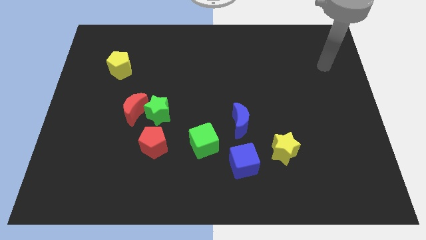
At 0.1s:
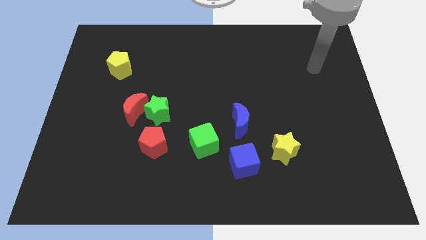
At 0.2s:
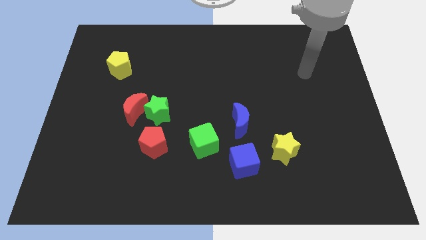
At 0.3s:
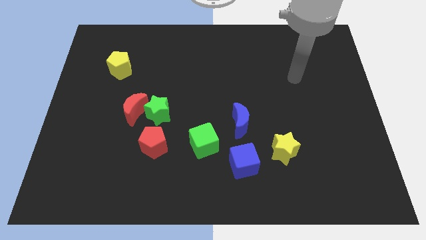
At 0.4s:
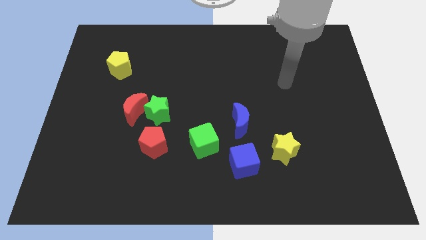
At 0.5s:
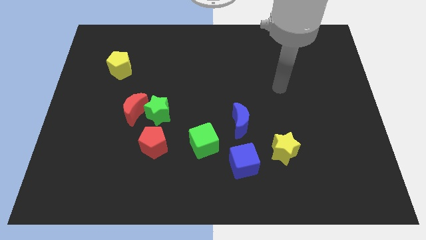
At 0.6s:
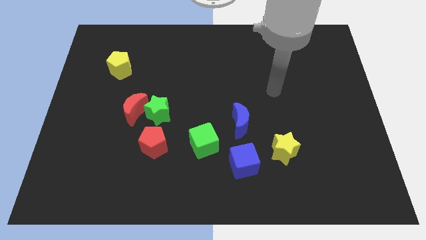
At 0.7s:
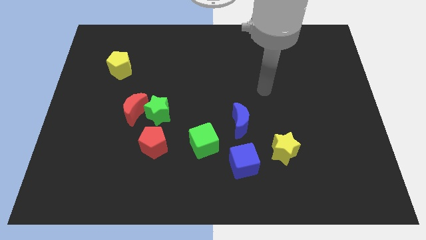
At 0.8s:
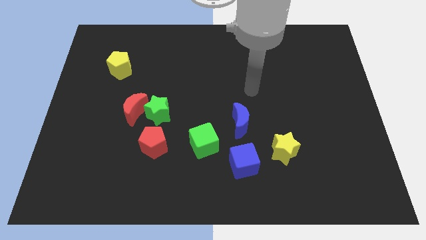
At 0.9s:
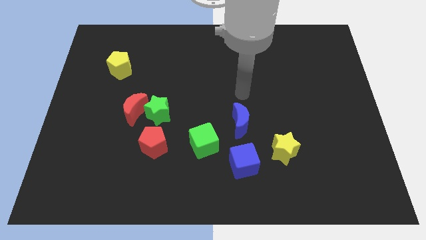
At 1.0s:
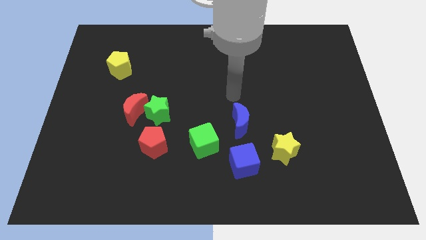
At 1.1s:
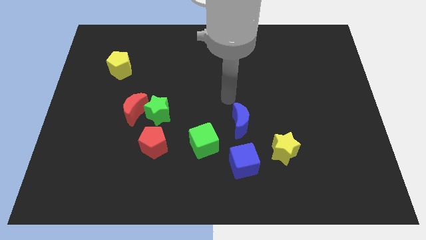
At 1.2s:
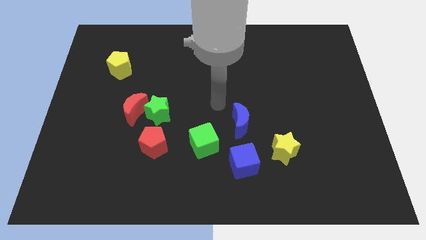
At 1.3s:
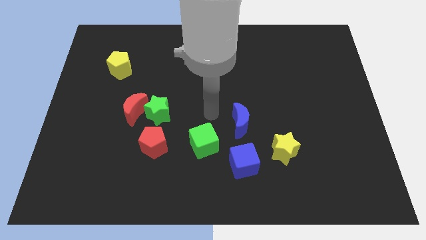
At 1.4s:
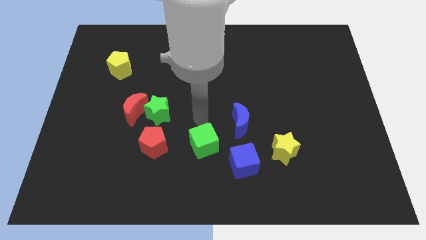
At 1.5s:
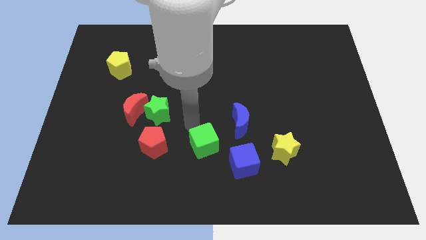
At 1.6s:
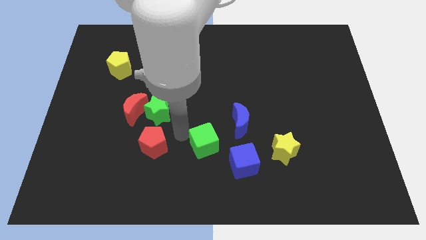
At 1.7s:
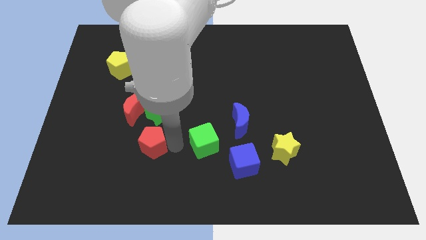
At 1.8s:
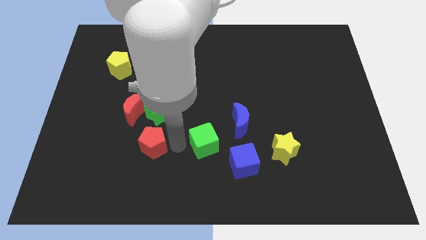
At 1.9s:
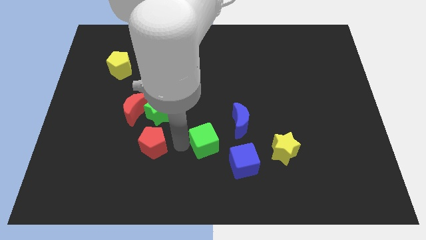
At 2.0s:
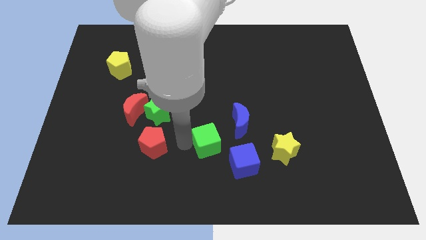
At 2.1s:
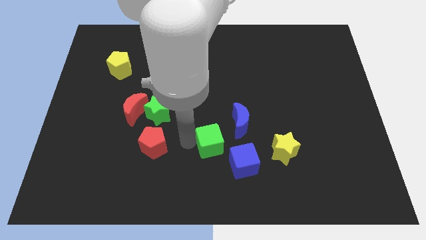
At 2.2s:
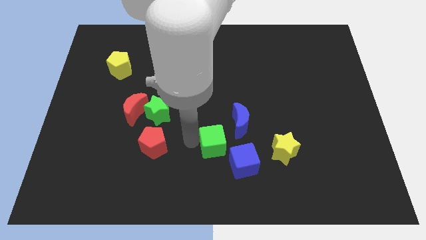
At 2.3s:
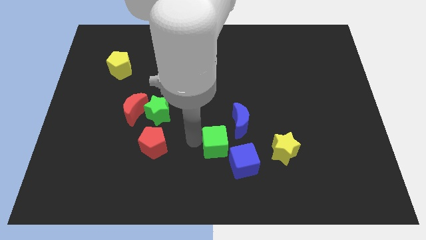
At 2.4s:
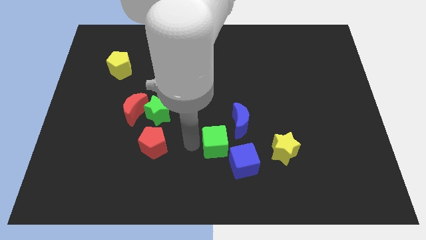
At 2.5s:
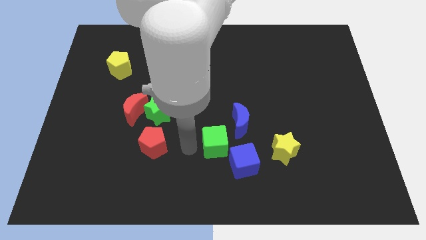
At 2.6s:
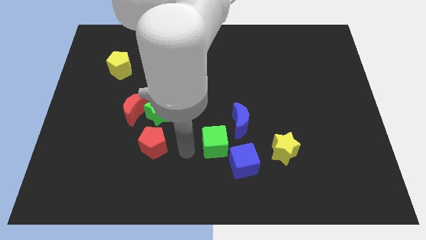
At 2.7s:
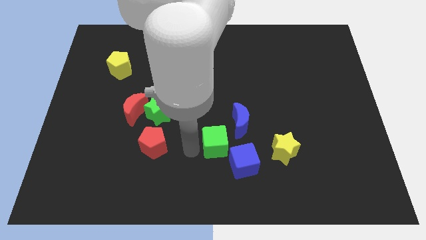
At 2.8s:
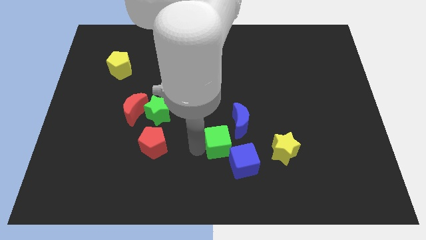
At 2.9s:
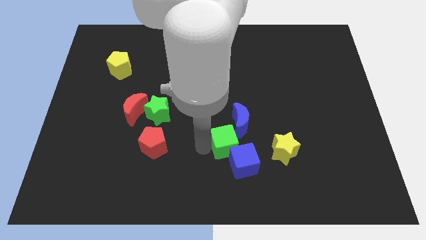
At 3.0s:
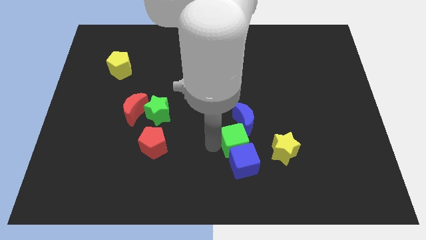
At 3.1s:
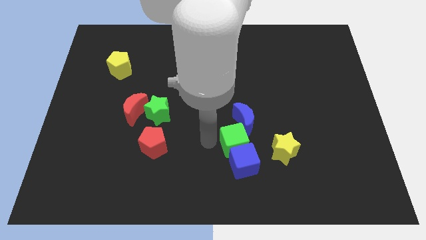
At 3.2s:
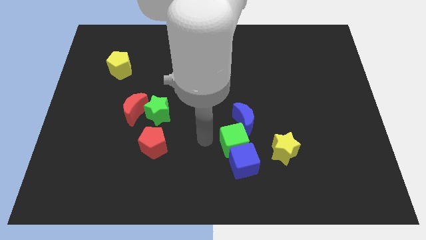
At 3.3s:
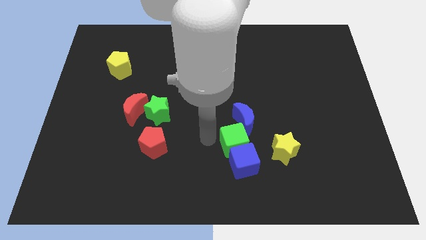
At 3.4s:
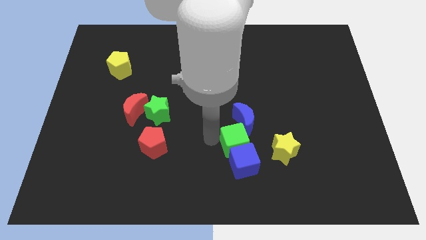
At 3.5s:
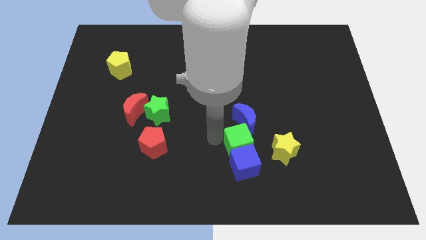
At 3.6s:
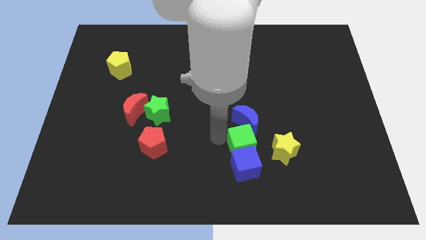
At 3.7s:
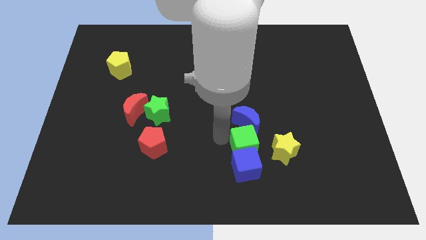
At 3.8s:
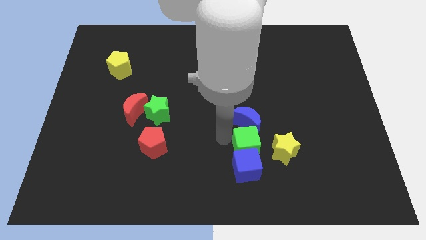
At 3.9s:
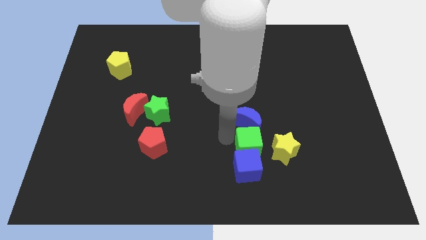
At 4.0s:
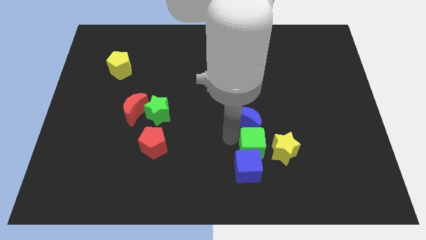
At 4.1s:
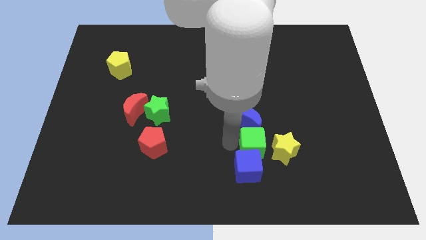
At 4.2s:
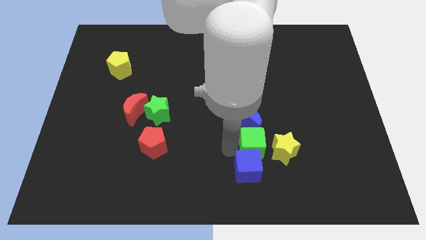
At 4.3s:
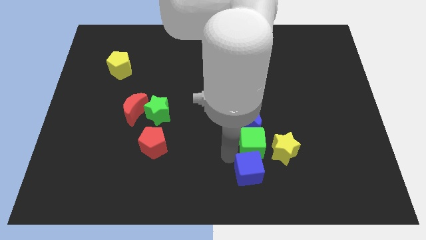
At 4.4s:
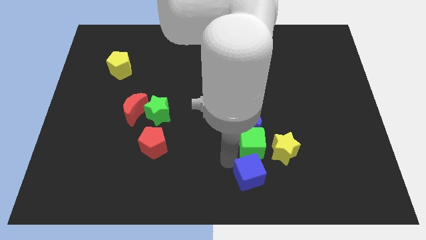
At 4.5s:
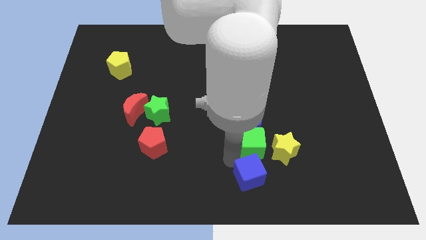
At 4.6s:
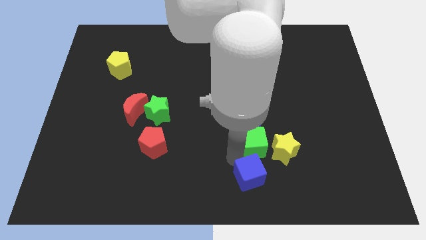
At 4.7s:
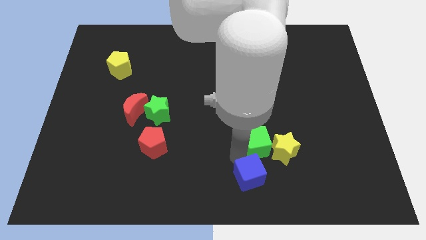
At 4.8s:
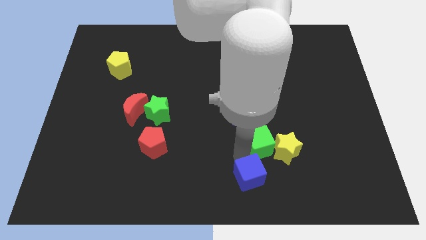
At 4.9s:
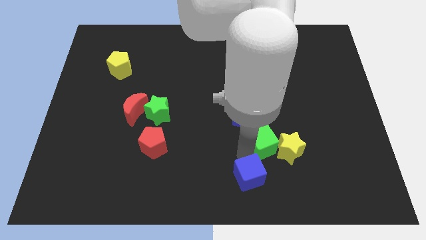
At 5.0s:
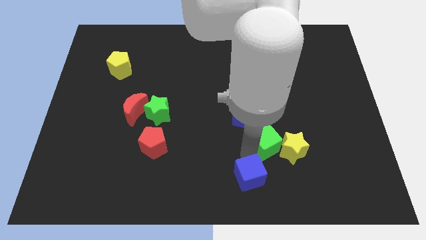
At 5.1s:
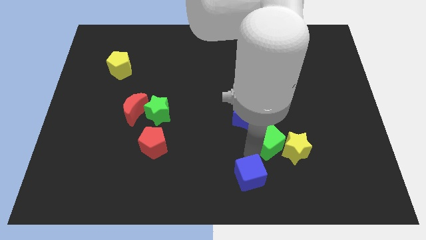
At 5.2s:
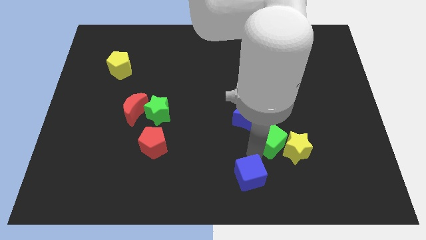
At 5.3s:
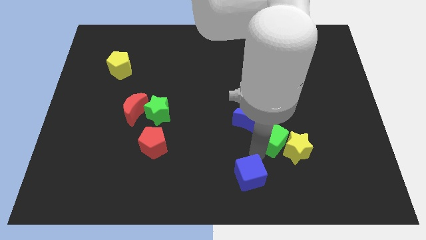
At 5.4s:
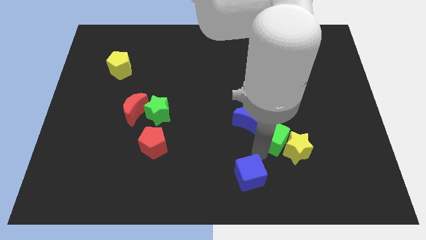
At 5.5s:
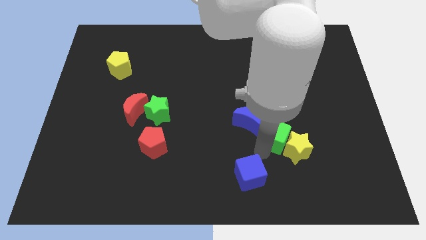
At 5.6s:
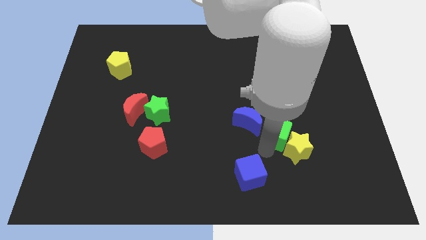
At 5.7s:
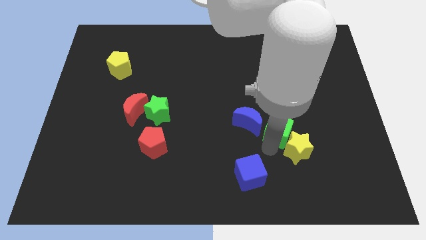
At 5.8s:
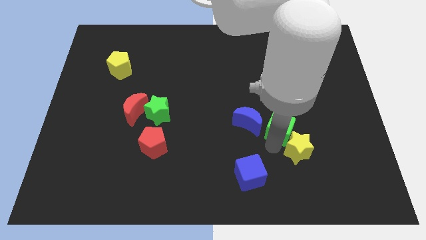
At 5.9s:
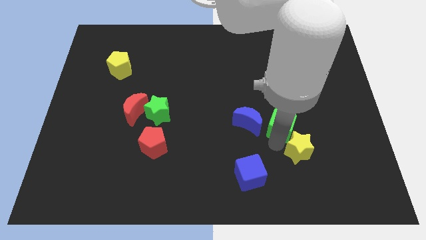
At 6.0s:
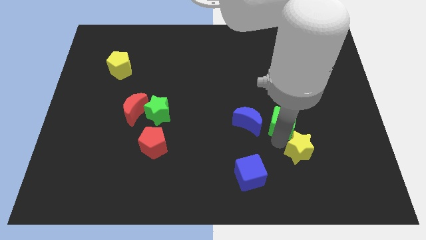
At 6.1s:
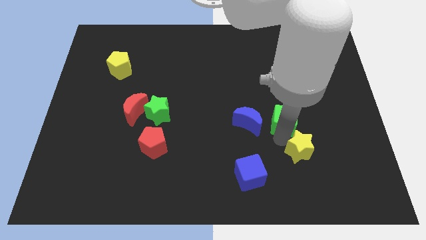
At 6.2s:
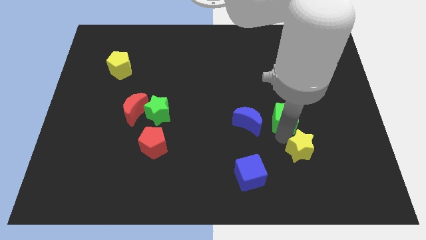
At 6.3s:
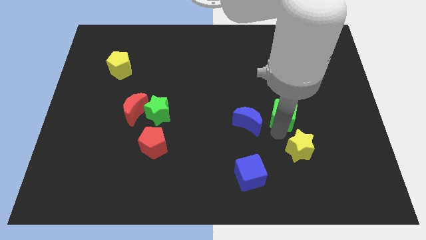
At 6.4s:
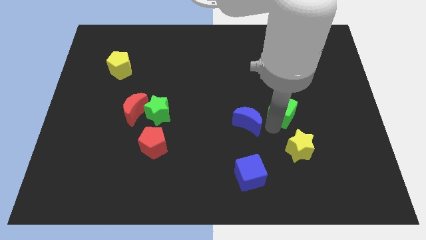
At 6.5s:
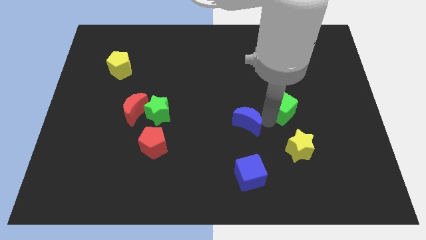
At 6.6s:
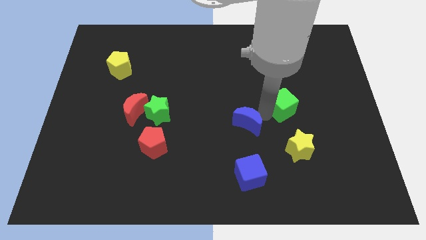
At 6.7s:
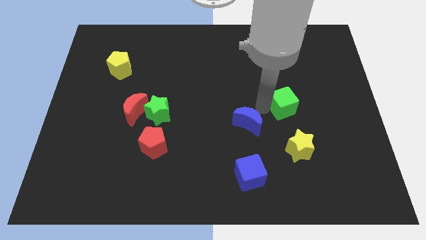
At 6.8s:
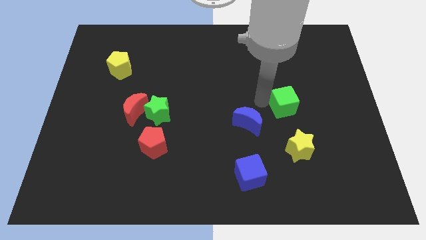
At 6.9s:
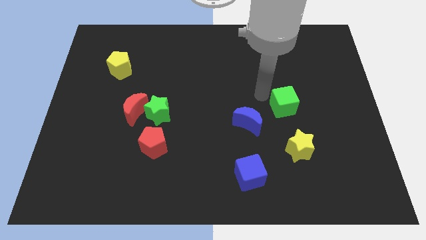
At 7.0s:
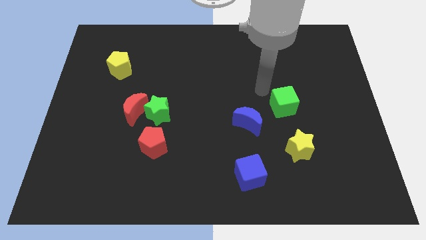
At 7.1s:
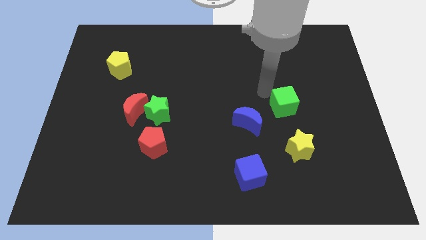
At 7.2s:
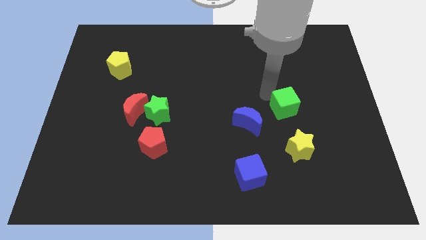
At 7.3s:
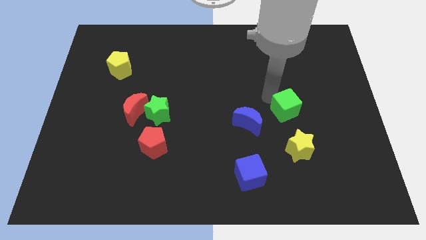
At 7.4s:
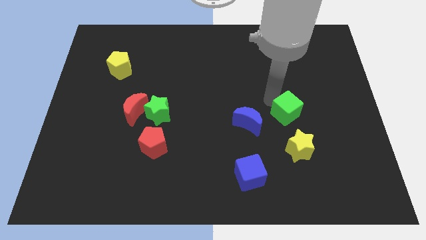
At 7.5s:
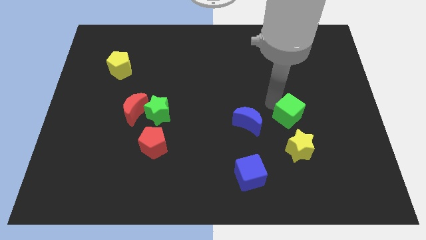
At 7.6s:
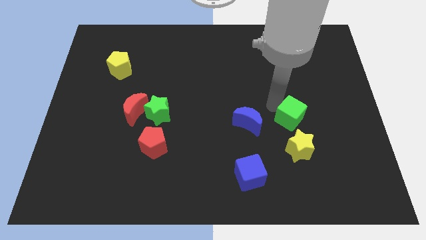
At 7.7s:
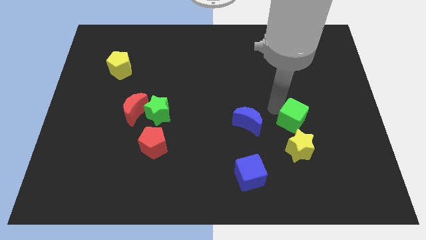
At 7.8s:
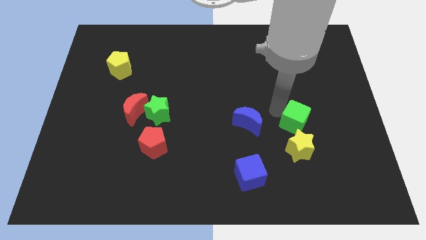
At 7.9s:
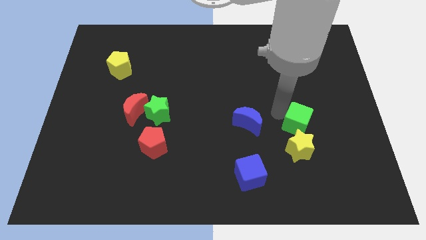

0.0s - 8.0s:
slide the green cube to the top right side of the yellow star
